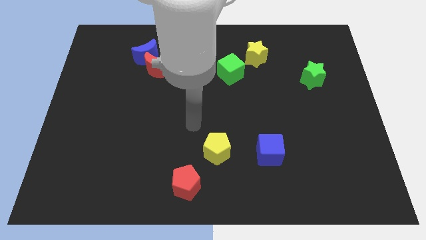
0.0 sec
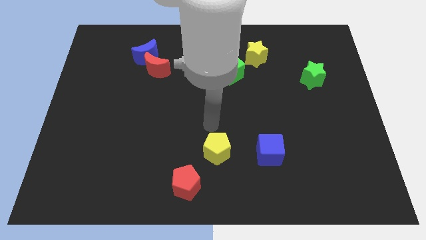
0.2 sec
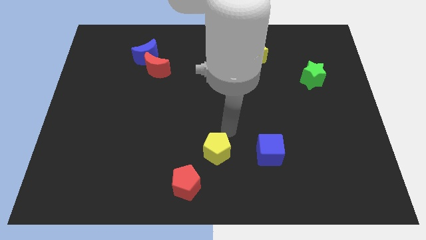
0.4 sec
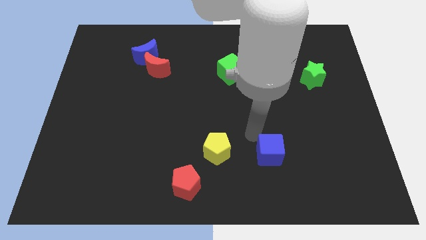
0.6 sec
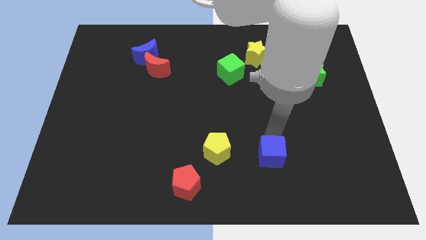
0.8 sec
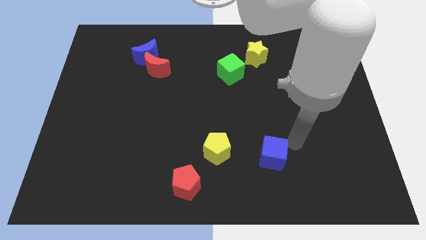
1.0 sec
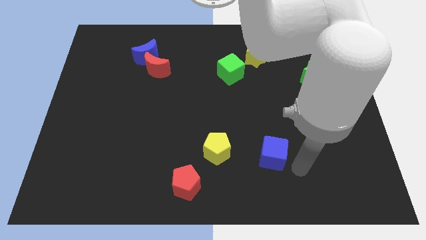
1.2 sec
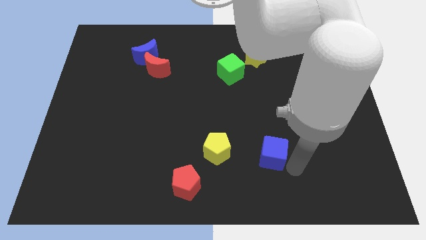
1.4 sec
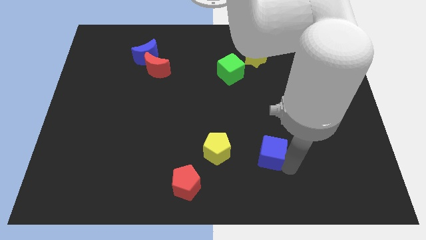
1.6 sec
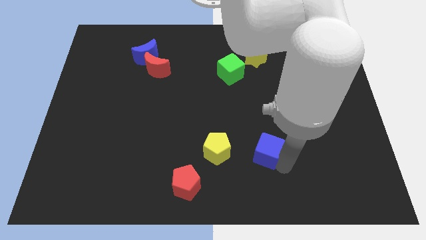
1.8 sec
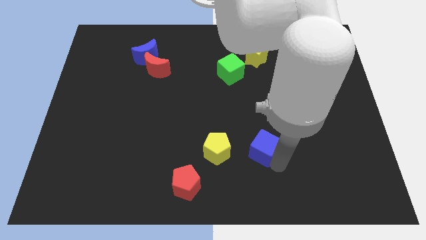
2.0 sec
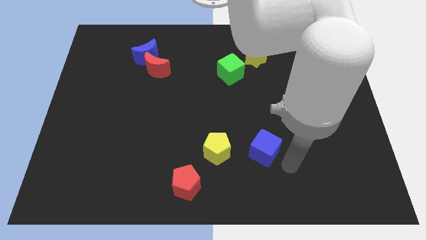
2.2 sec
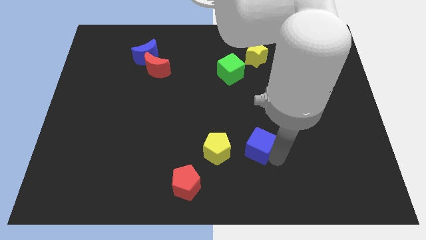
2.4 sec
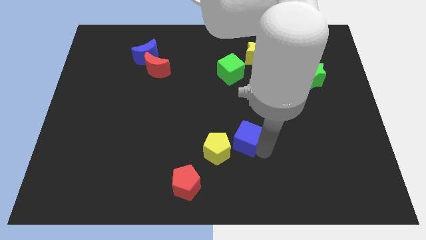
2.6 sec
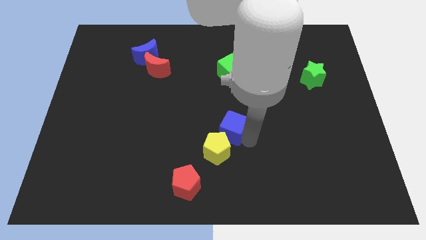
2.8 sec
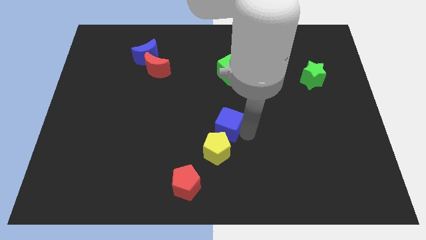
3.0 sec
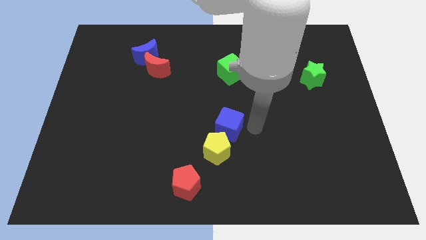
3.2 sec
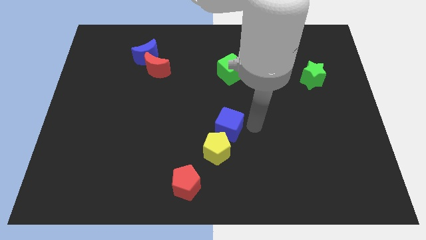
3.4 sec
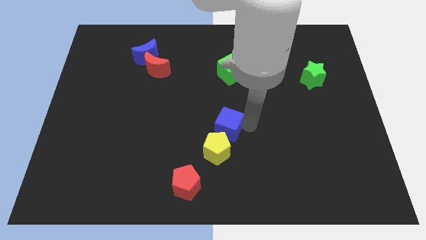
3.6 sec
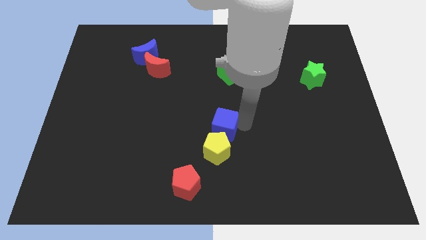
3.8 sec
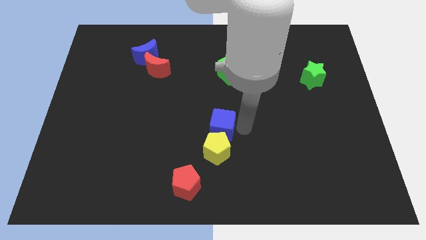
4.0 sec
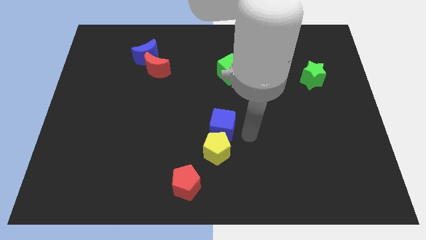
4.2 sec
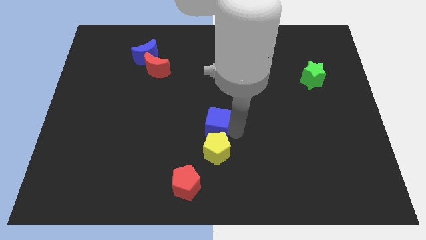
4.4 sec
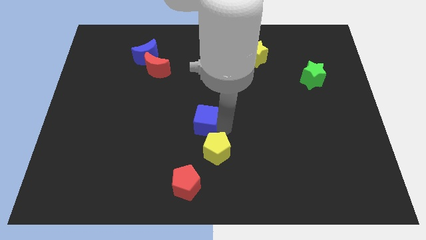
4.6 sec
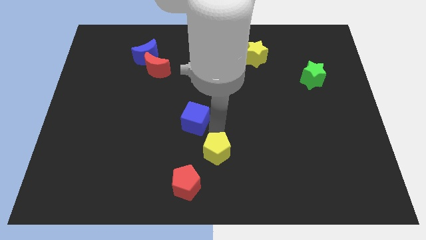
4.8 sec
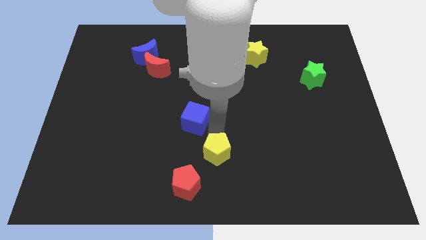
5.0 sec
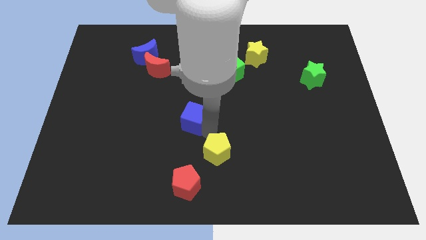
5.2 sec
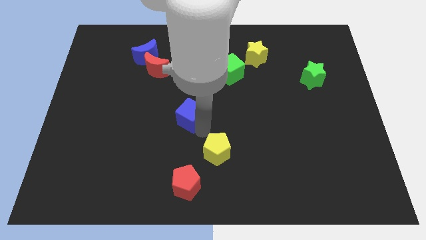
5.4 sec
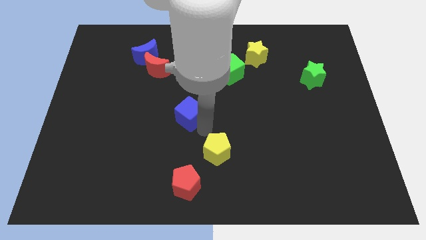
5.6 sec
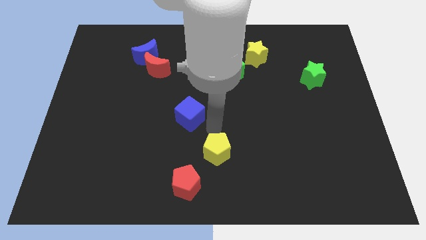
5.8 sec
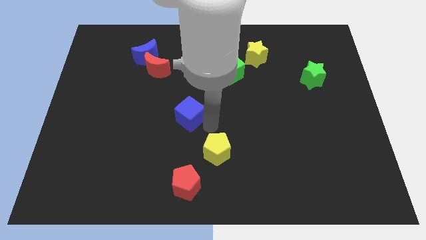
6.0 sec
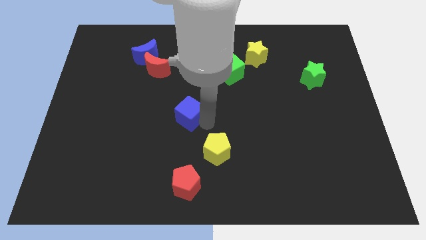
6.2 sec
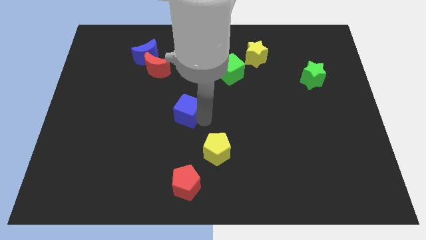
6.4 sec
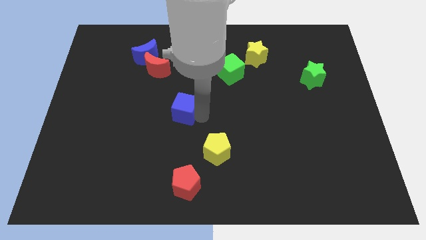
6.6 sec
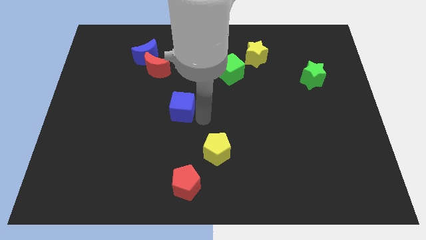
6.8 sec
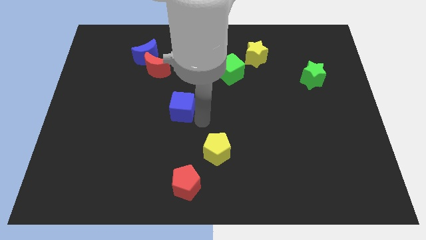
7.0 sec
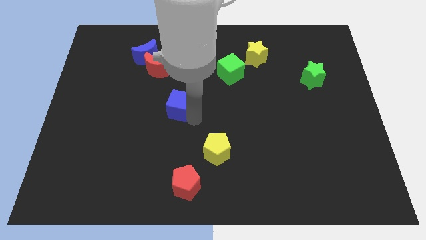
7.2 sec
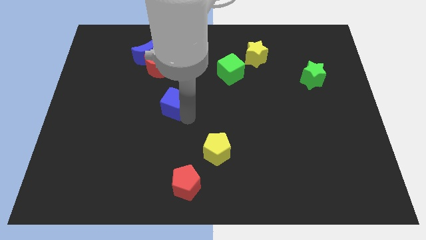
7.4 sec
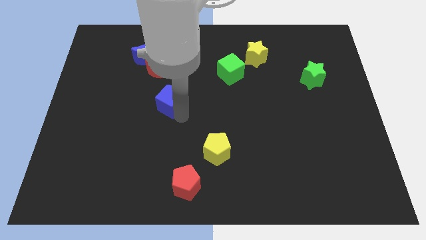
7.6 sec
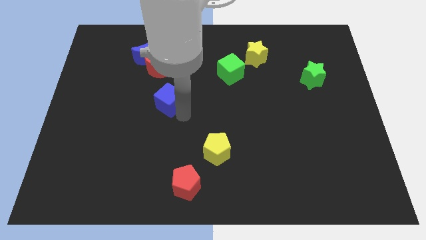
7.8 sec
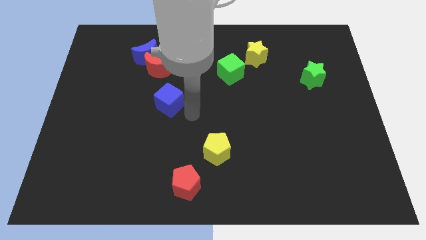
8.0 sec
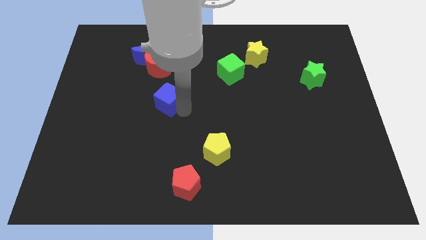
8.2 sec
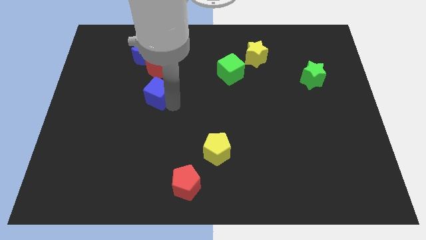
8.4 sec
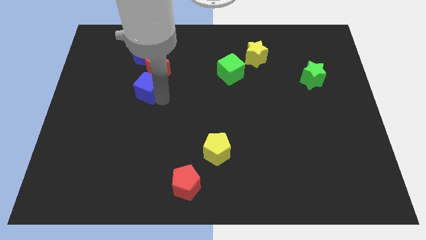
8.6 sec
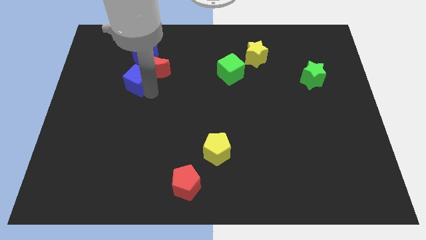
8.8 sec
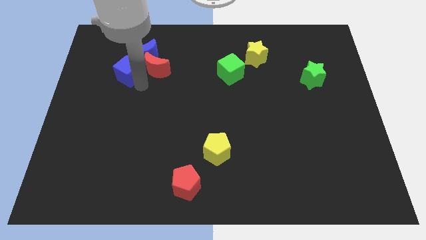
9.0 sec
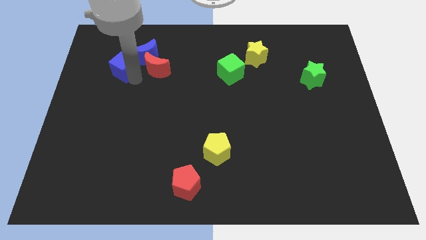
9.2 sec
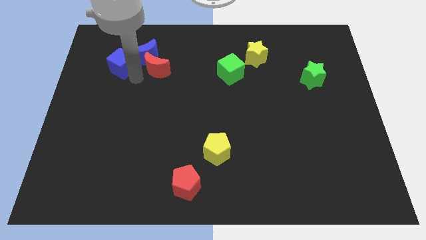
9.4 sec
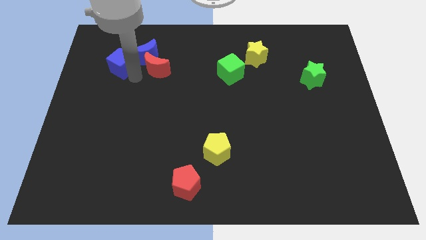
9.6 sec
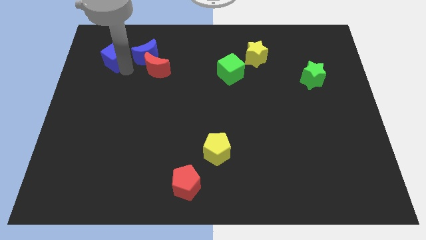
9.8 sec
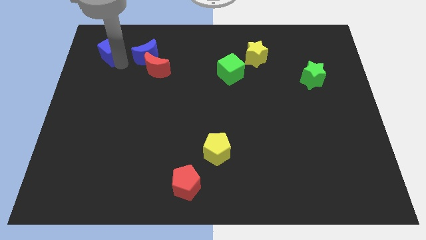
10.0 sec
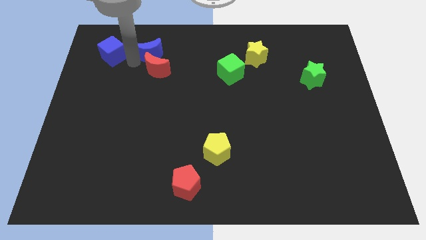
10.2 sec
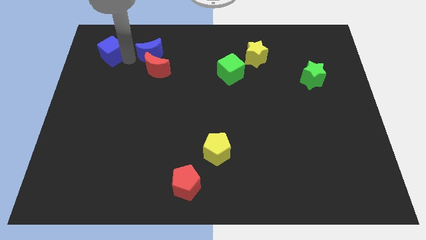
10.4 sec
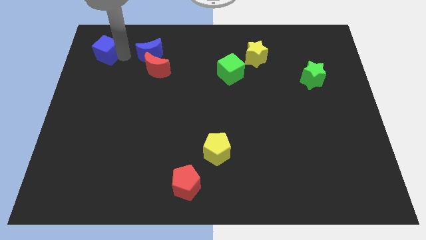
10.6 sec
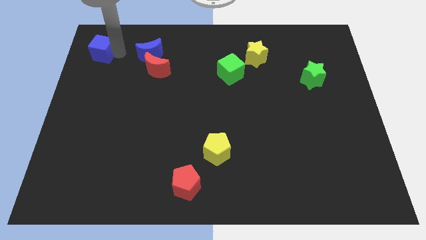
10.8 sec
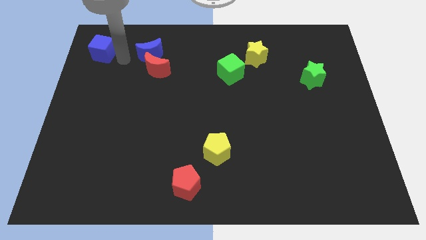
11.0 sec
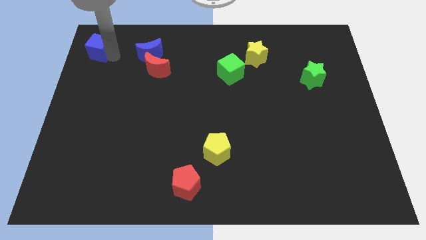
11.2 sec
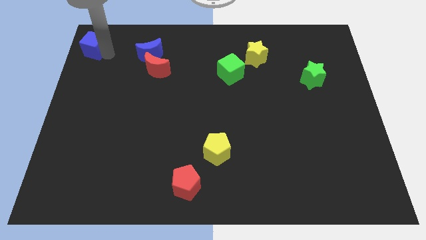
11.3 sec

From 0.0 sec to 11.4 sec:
slide the blue cube to the top left of the board

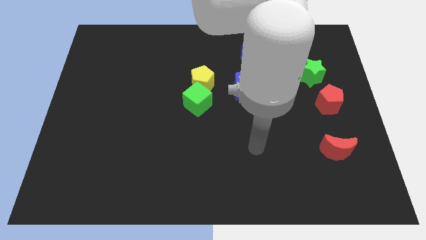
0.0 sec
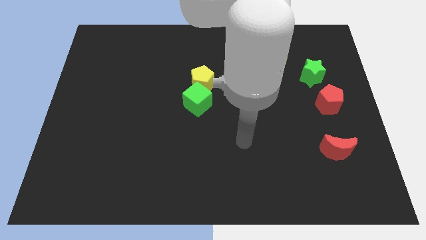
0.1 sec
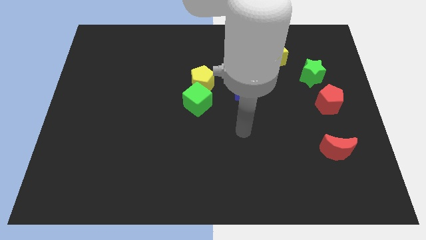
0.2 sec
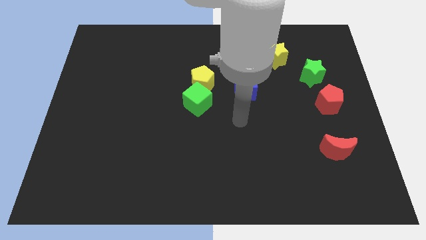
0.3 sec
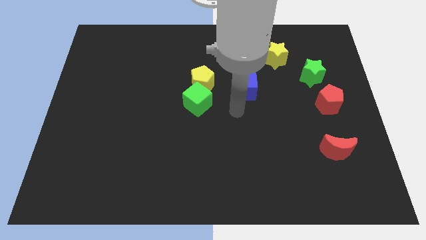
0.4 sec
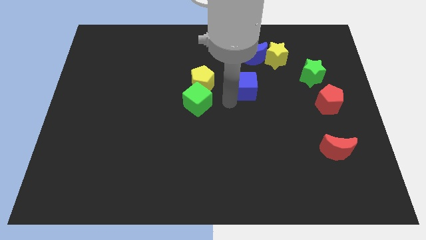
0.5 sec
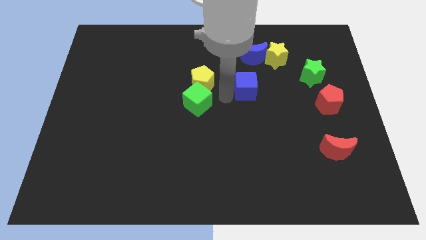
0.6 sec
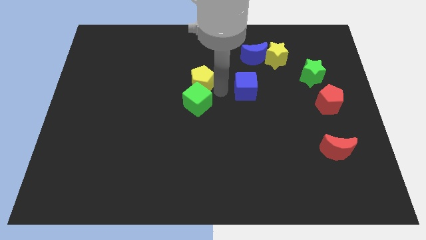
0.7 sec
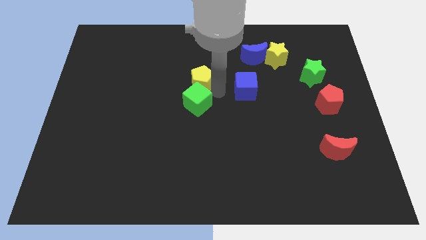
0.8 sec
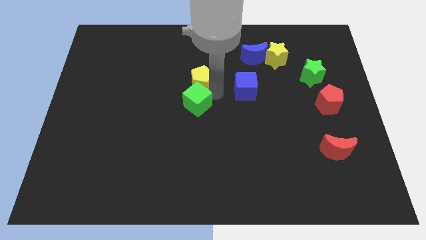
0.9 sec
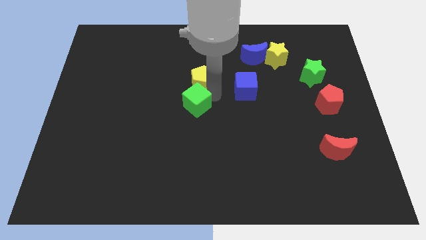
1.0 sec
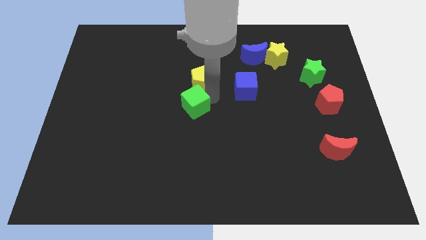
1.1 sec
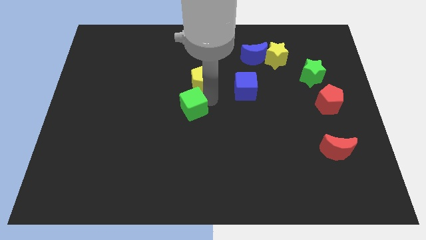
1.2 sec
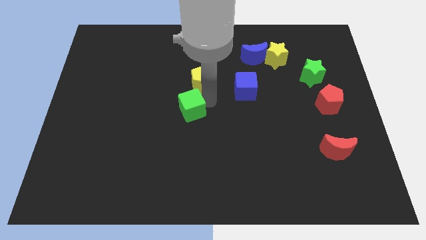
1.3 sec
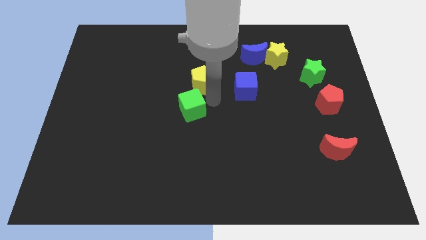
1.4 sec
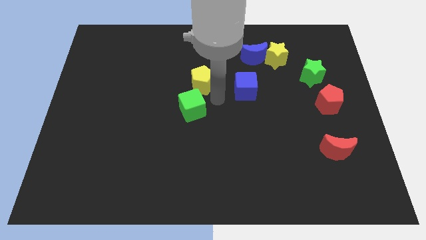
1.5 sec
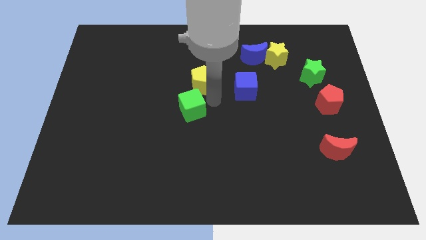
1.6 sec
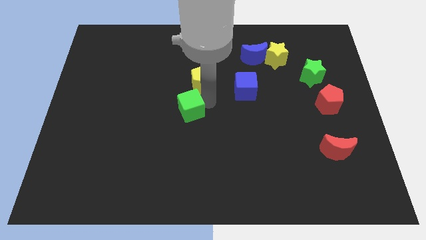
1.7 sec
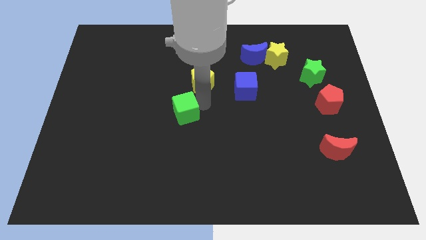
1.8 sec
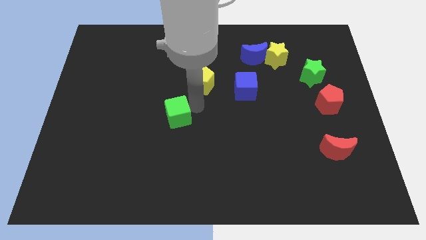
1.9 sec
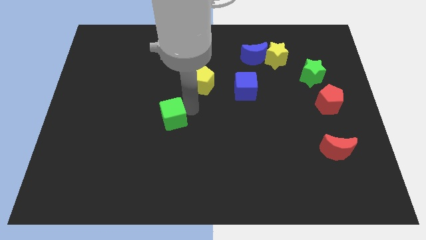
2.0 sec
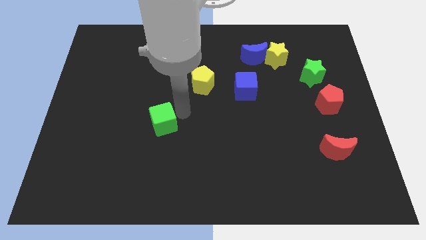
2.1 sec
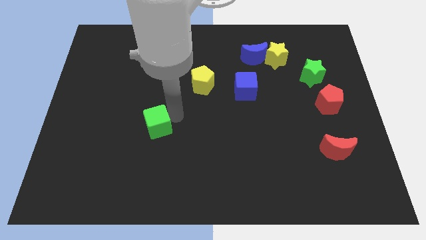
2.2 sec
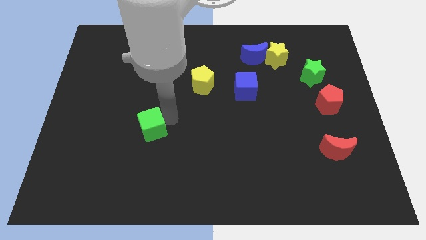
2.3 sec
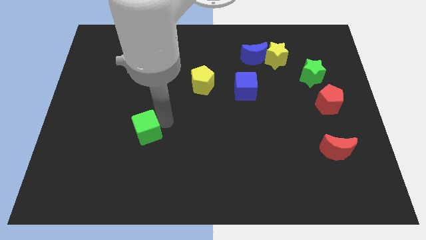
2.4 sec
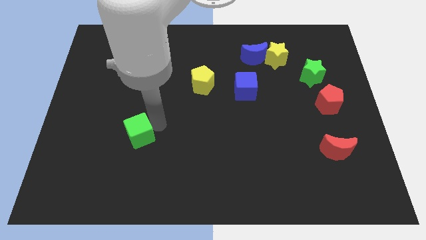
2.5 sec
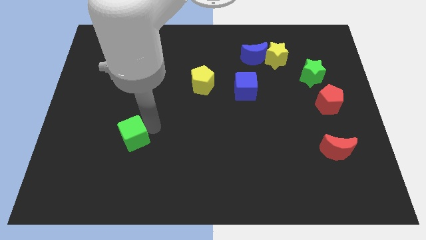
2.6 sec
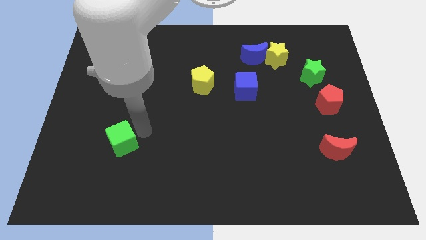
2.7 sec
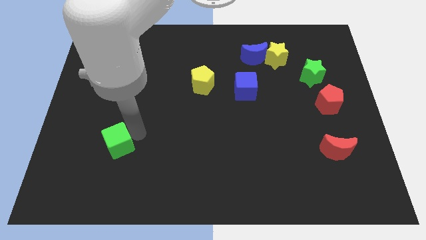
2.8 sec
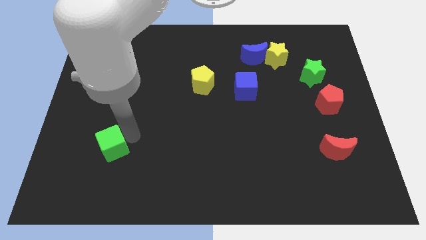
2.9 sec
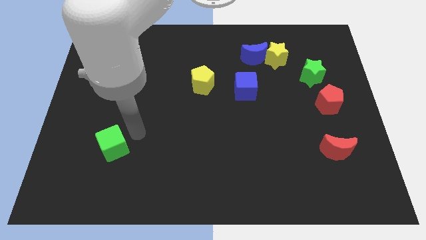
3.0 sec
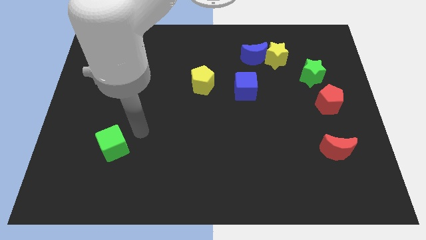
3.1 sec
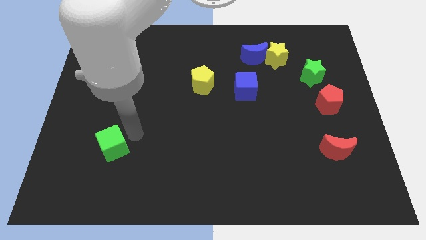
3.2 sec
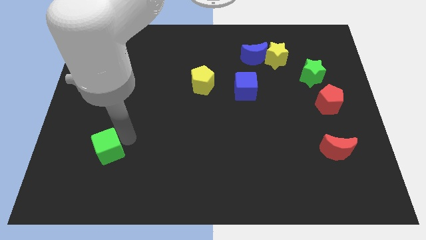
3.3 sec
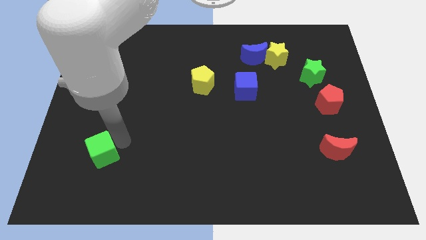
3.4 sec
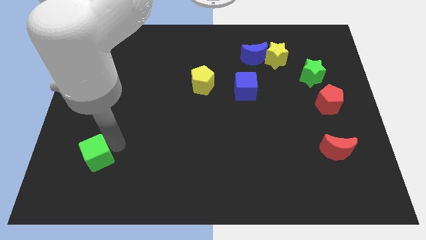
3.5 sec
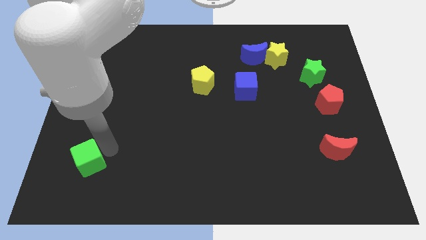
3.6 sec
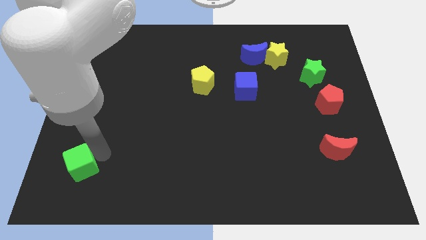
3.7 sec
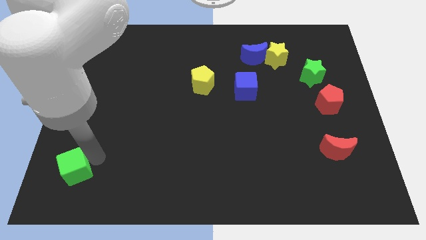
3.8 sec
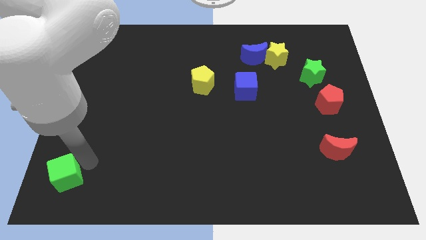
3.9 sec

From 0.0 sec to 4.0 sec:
push the green cube to the bottom left corner
